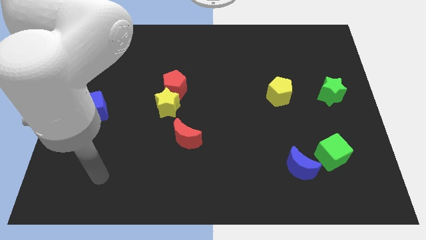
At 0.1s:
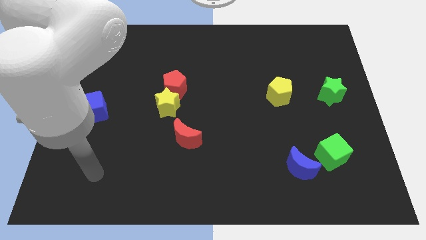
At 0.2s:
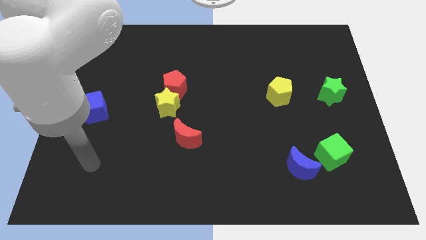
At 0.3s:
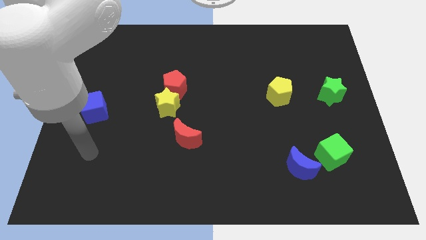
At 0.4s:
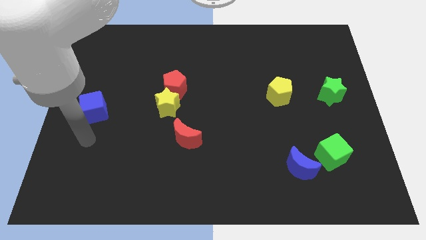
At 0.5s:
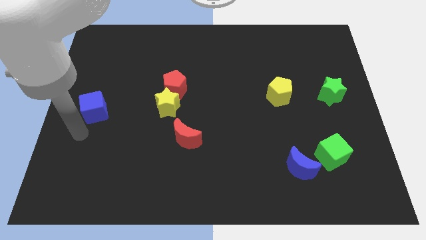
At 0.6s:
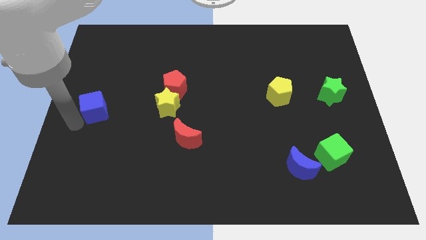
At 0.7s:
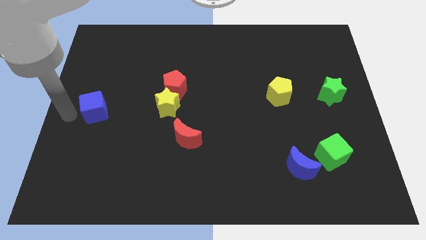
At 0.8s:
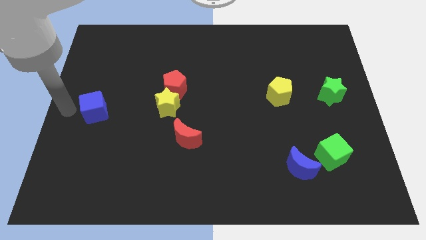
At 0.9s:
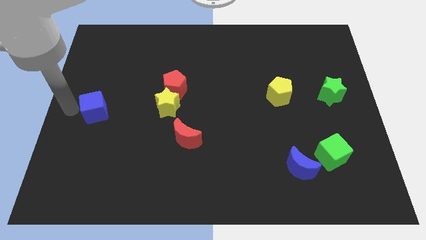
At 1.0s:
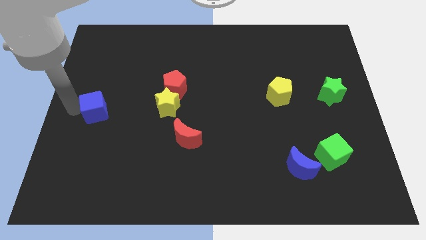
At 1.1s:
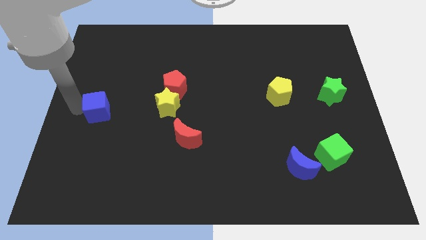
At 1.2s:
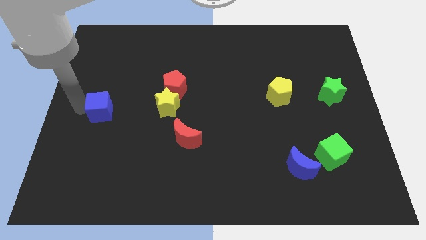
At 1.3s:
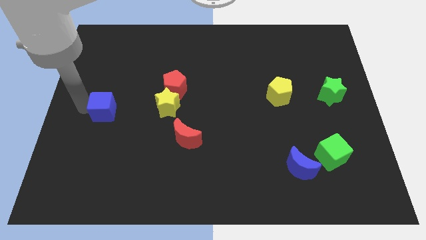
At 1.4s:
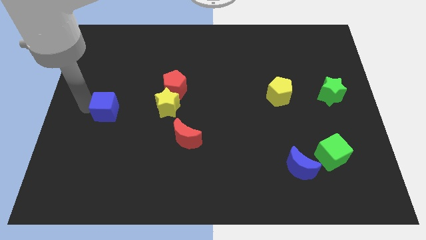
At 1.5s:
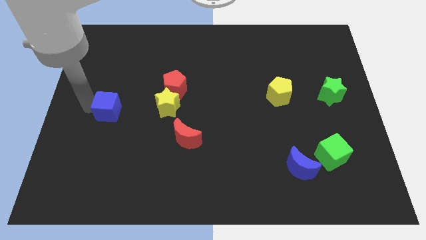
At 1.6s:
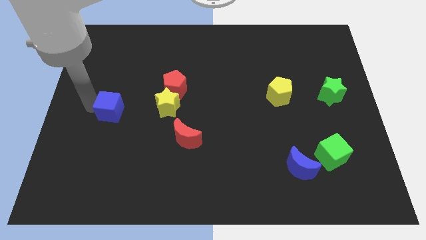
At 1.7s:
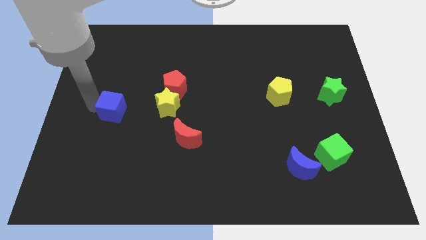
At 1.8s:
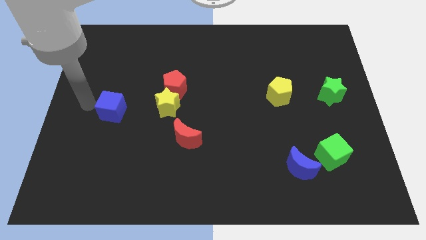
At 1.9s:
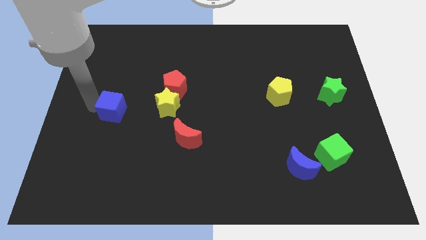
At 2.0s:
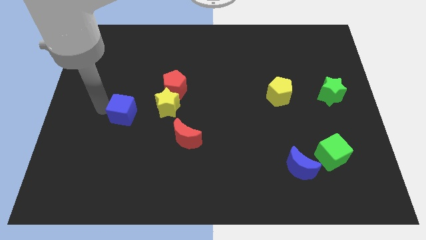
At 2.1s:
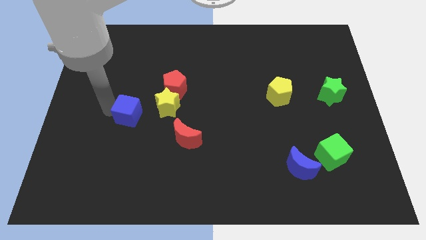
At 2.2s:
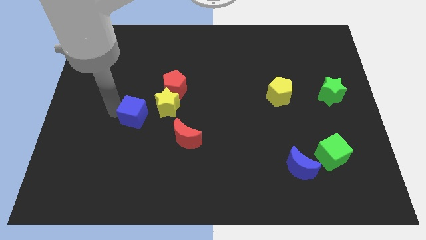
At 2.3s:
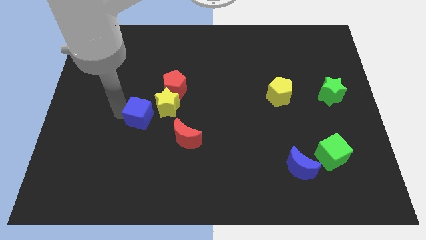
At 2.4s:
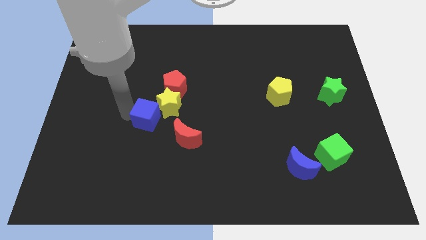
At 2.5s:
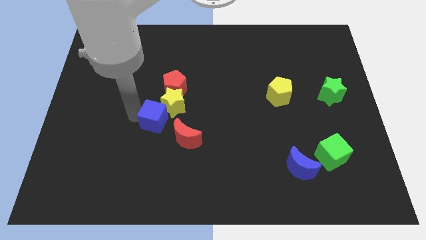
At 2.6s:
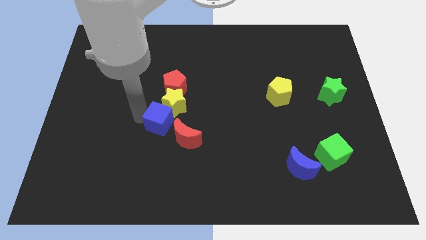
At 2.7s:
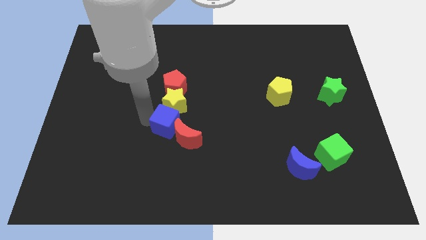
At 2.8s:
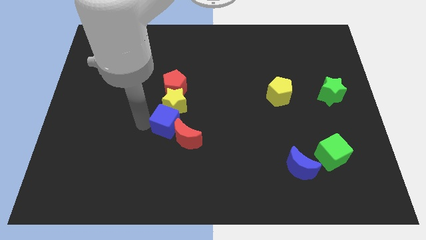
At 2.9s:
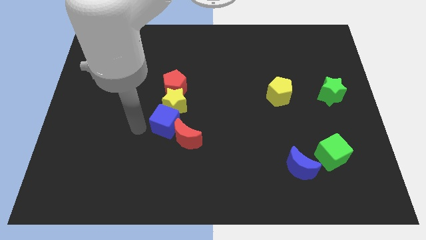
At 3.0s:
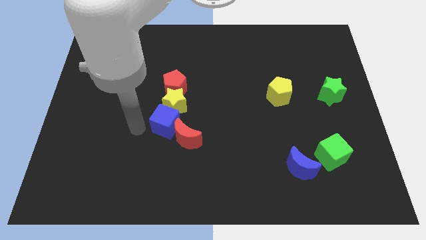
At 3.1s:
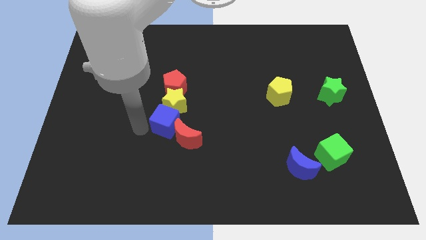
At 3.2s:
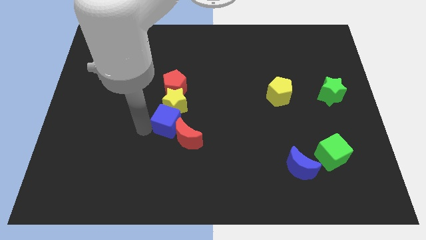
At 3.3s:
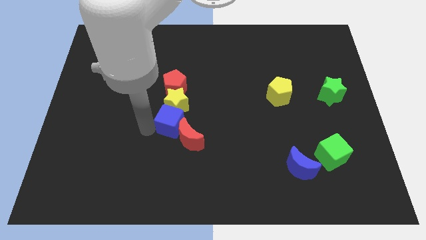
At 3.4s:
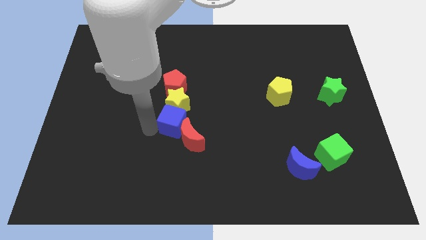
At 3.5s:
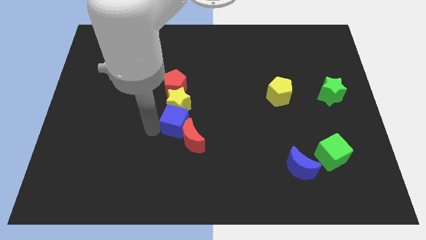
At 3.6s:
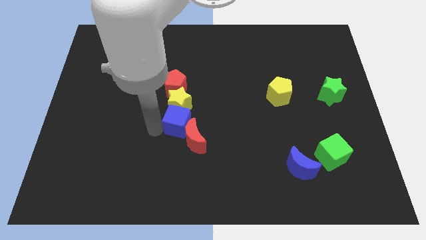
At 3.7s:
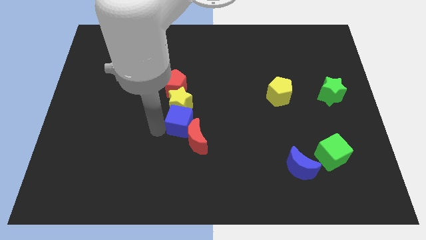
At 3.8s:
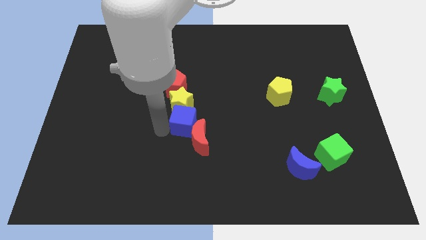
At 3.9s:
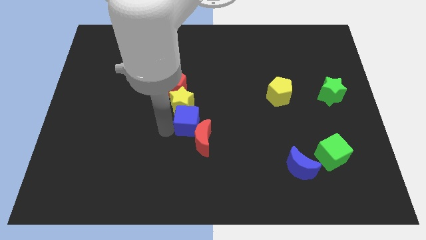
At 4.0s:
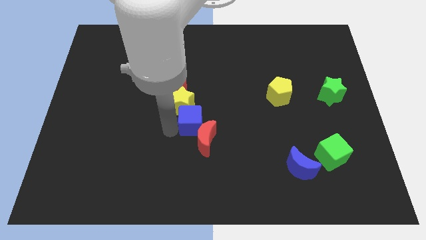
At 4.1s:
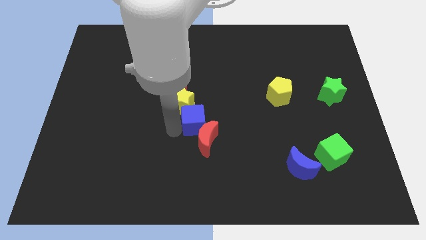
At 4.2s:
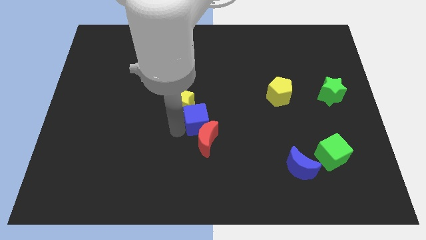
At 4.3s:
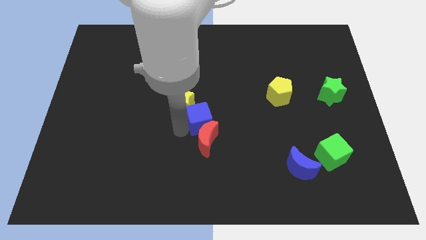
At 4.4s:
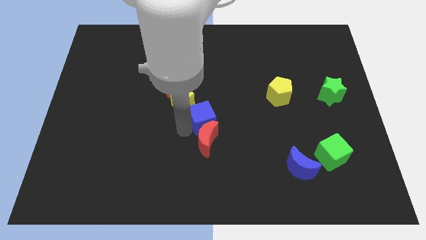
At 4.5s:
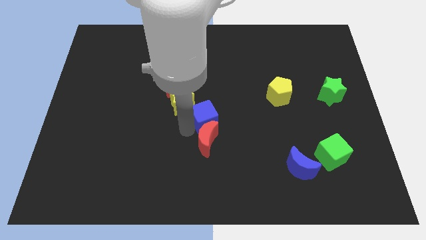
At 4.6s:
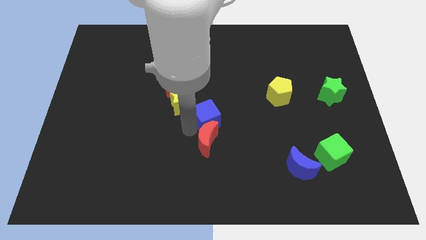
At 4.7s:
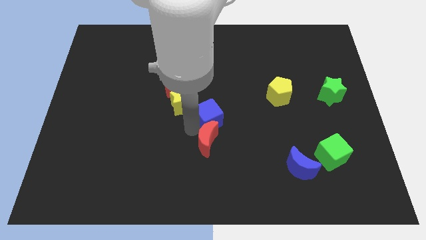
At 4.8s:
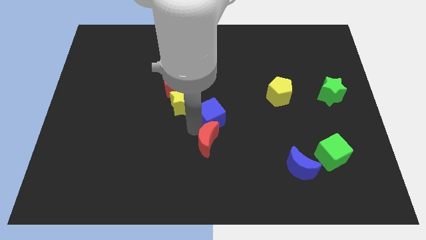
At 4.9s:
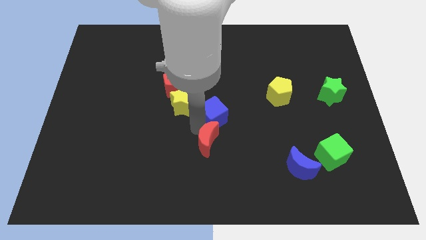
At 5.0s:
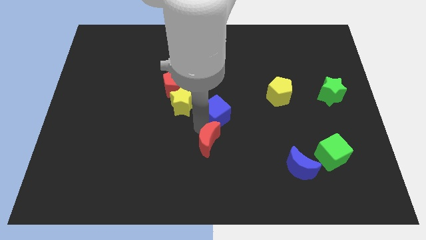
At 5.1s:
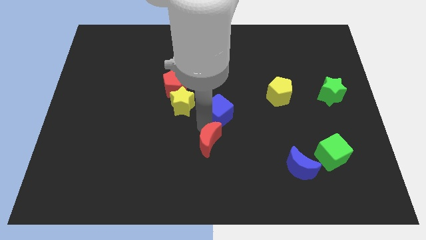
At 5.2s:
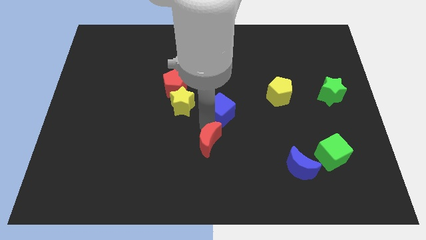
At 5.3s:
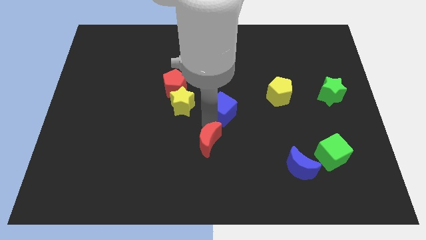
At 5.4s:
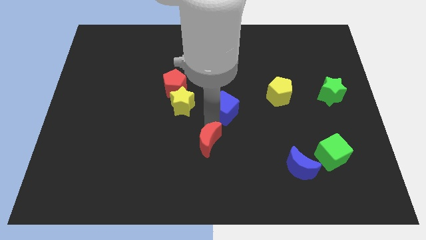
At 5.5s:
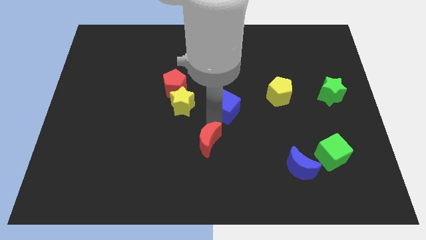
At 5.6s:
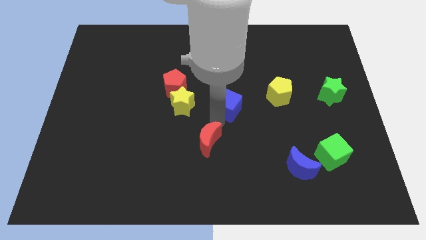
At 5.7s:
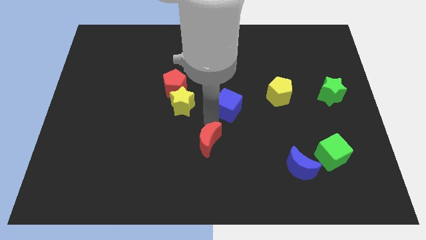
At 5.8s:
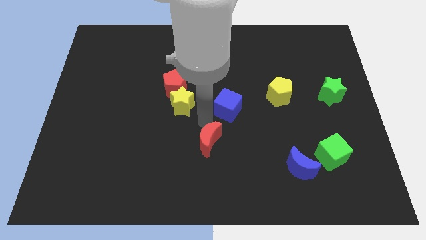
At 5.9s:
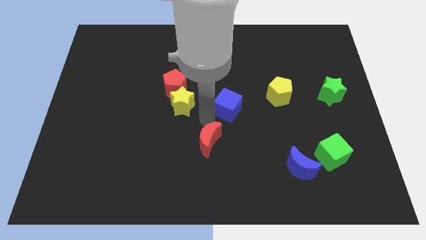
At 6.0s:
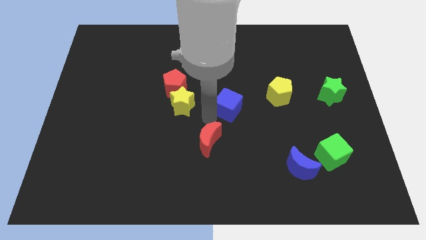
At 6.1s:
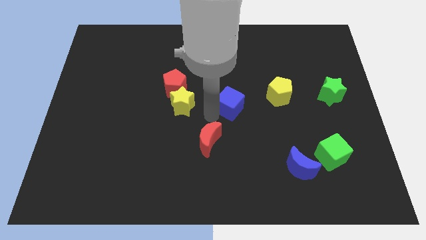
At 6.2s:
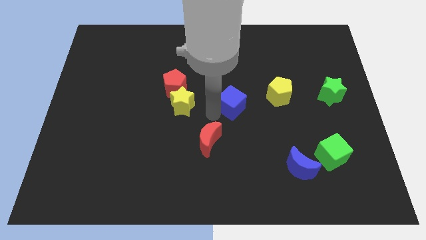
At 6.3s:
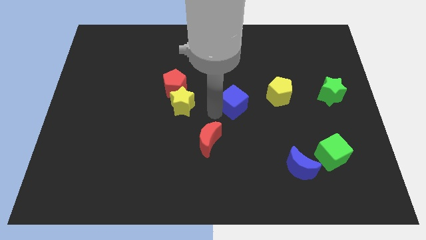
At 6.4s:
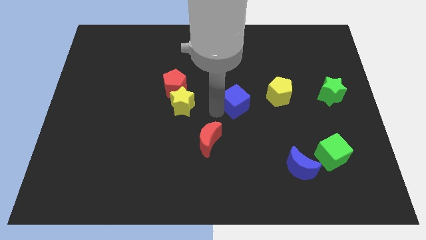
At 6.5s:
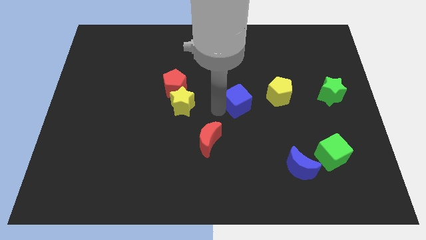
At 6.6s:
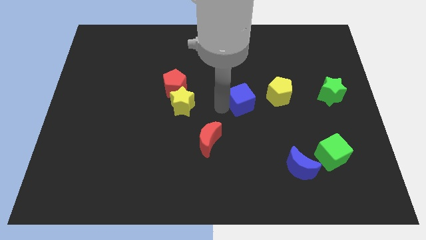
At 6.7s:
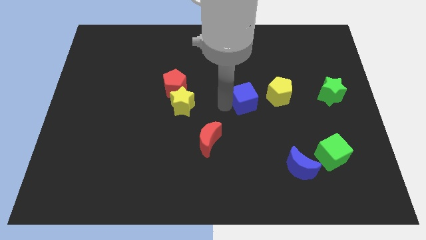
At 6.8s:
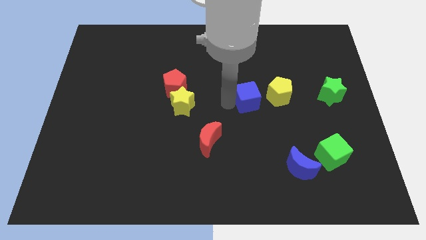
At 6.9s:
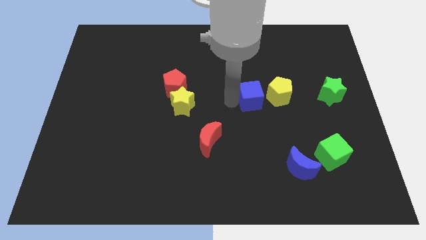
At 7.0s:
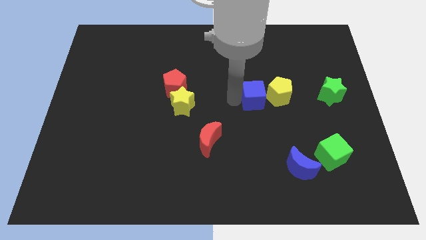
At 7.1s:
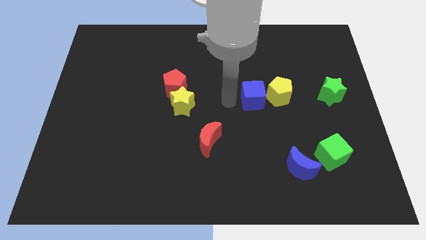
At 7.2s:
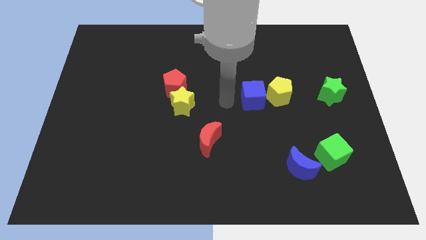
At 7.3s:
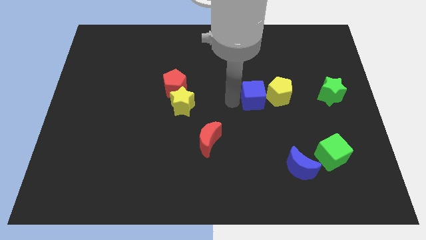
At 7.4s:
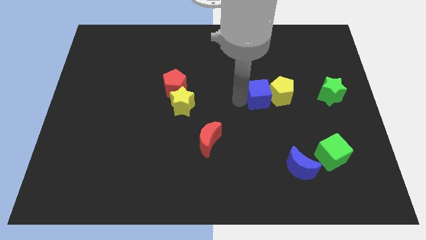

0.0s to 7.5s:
move the blue cube next to the yellow pentagon
